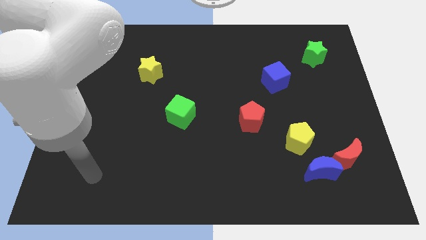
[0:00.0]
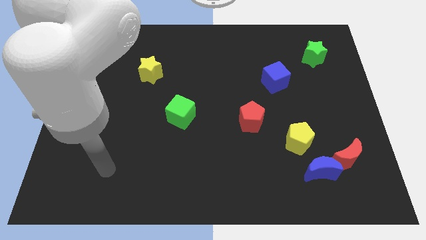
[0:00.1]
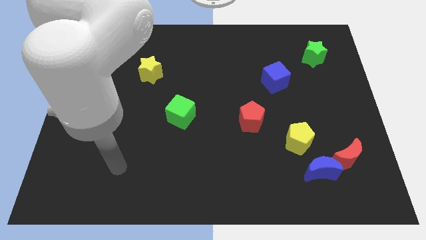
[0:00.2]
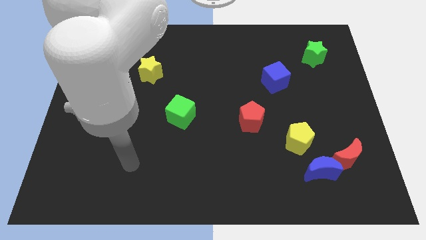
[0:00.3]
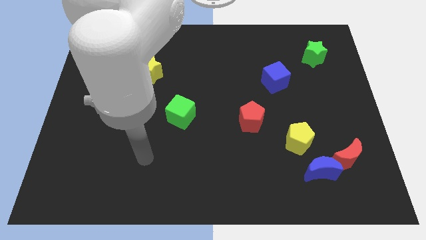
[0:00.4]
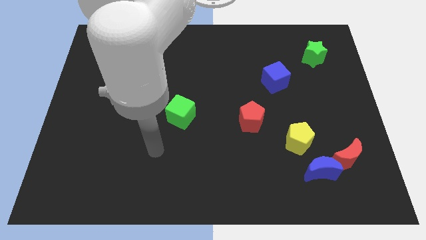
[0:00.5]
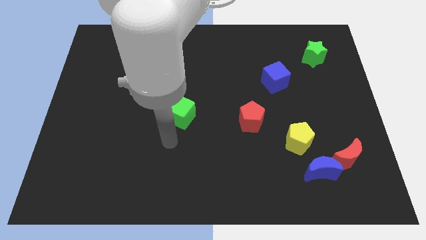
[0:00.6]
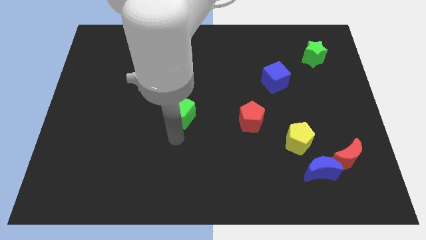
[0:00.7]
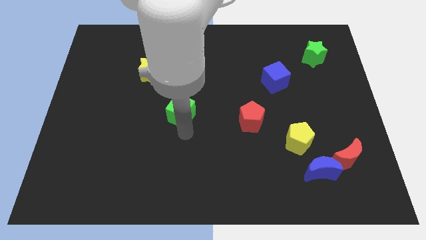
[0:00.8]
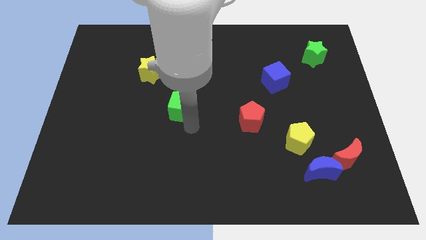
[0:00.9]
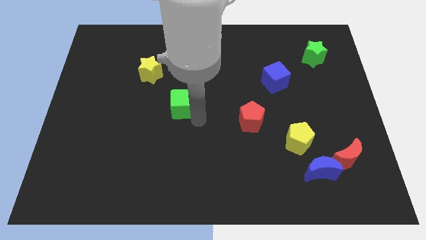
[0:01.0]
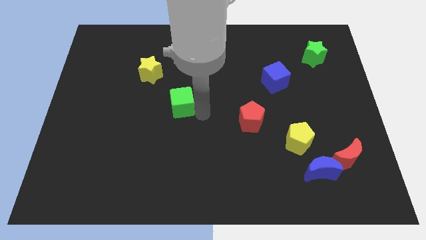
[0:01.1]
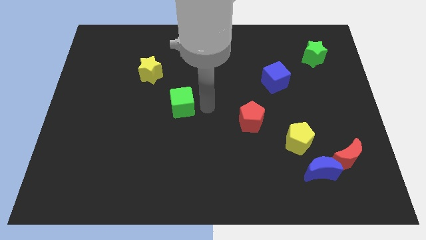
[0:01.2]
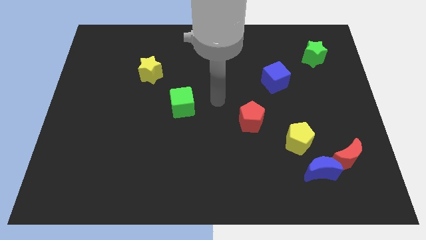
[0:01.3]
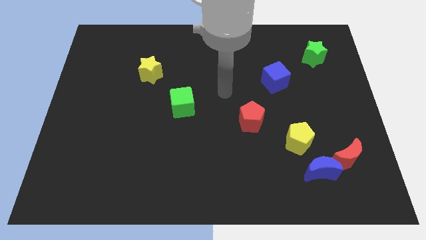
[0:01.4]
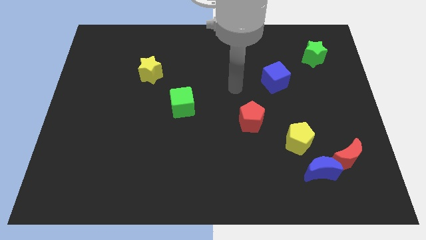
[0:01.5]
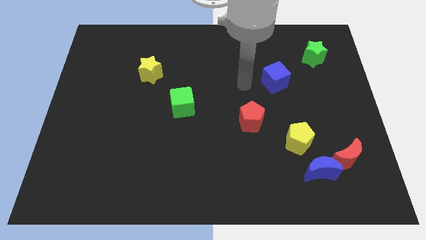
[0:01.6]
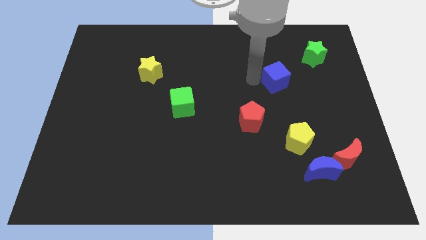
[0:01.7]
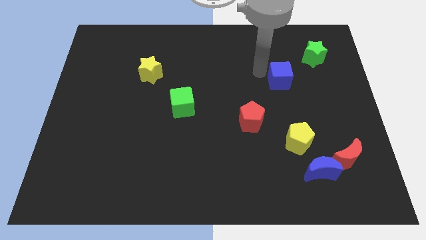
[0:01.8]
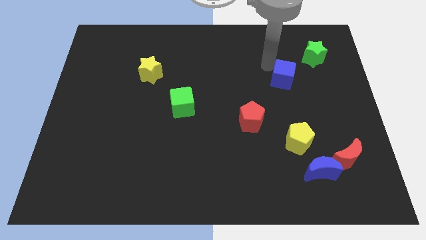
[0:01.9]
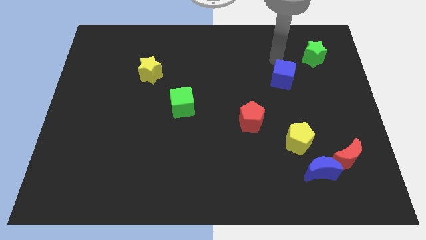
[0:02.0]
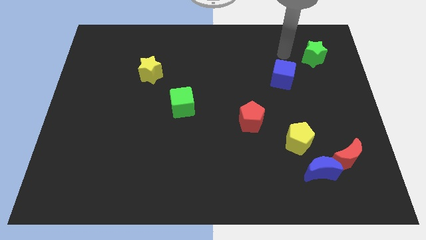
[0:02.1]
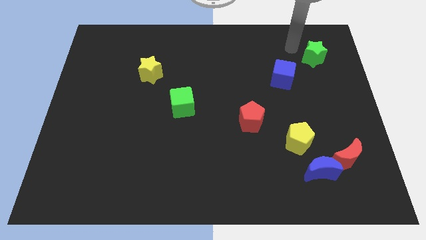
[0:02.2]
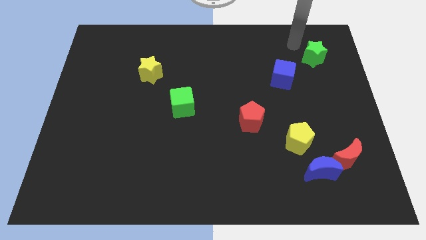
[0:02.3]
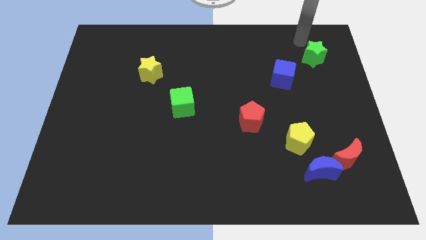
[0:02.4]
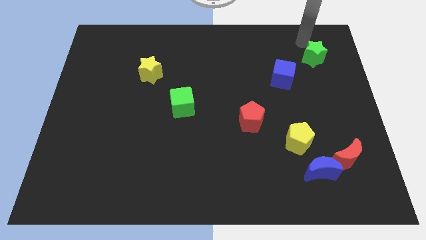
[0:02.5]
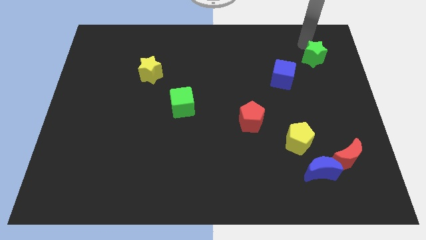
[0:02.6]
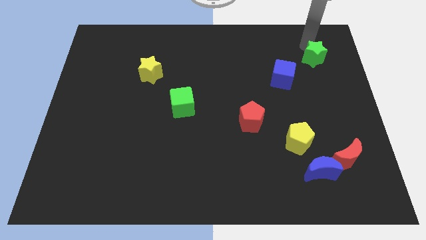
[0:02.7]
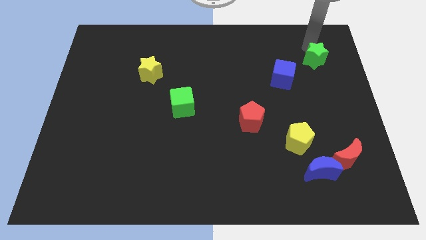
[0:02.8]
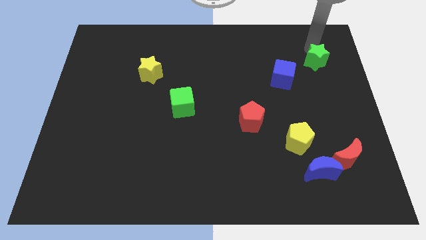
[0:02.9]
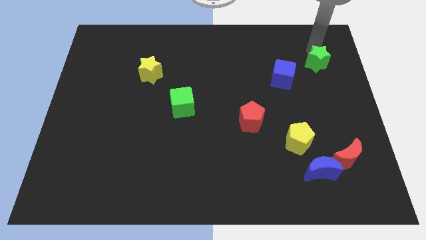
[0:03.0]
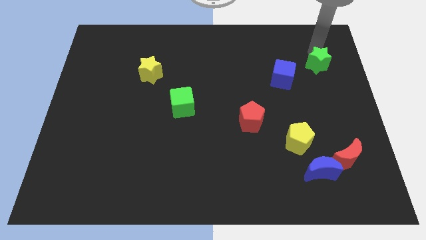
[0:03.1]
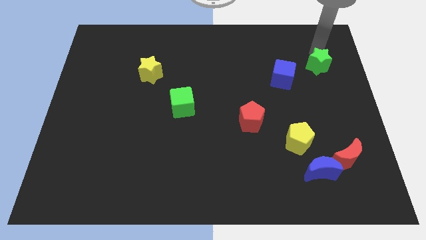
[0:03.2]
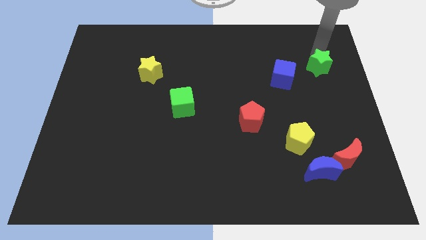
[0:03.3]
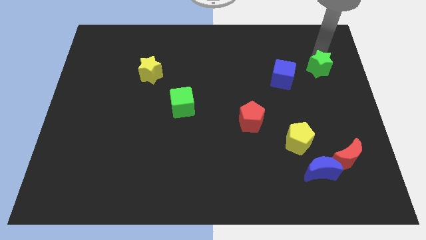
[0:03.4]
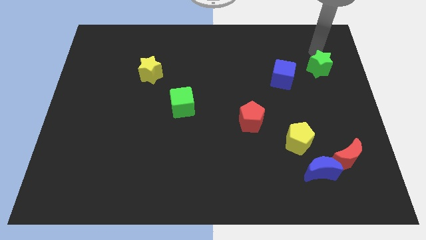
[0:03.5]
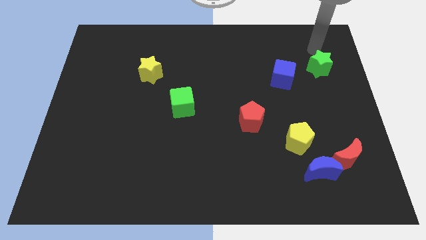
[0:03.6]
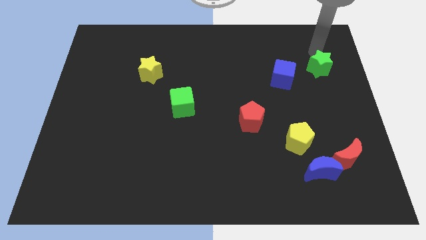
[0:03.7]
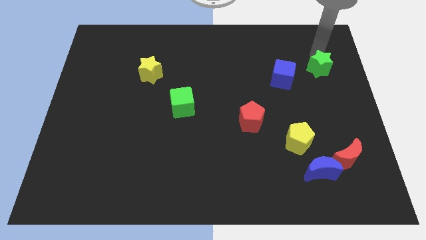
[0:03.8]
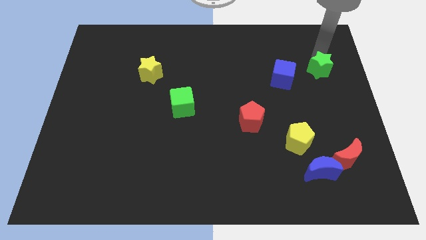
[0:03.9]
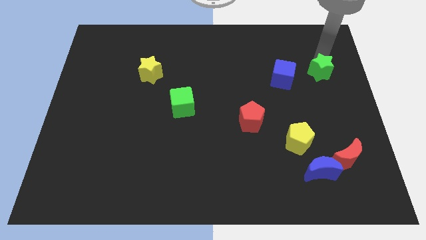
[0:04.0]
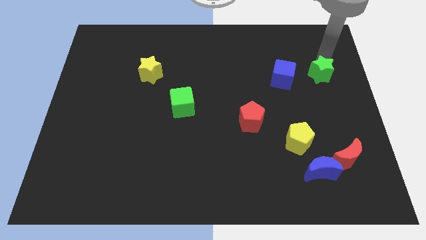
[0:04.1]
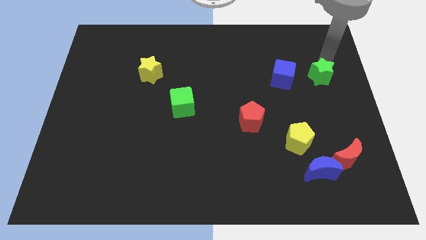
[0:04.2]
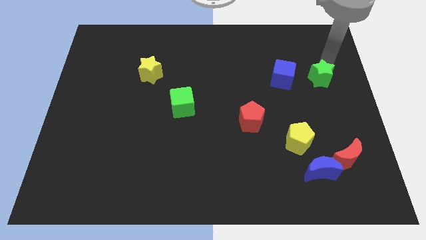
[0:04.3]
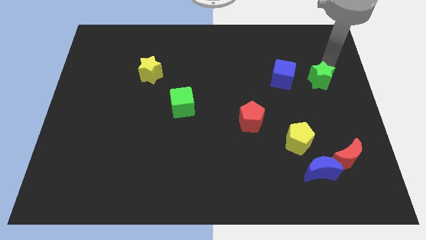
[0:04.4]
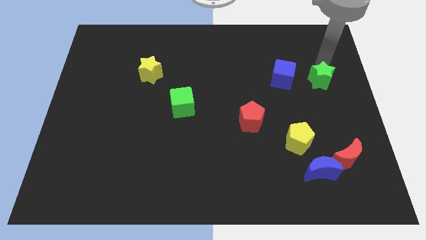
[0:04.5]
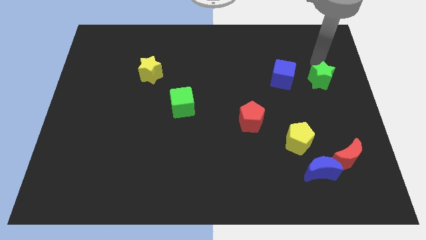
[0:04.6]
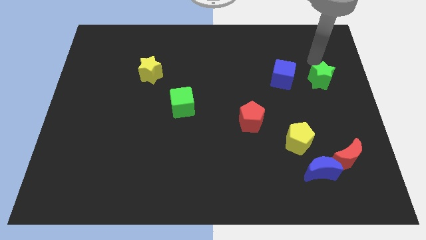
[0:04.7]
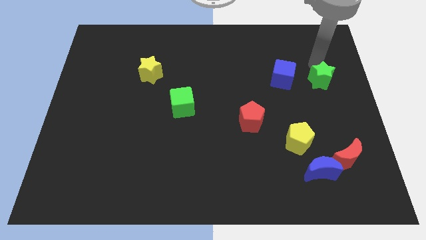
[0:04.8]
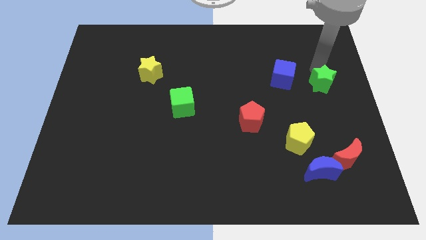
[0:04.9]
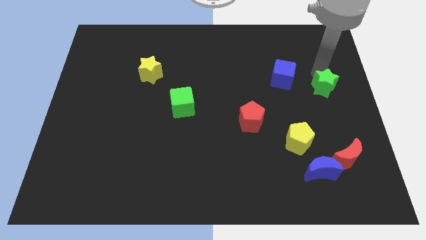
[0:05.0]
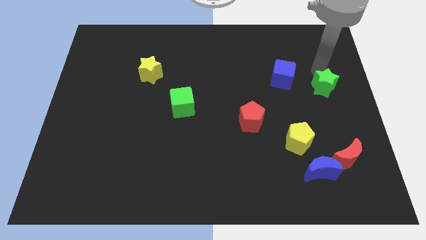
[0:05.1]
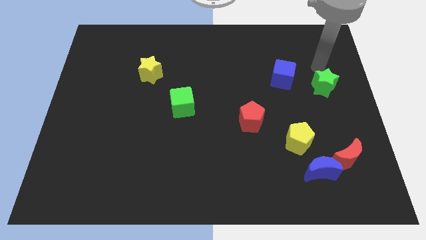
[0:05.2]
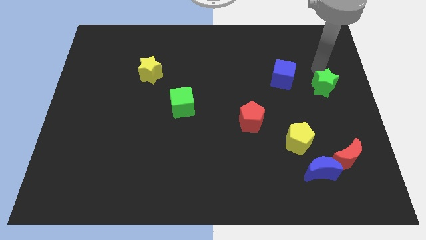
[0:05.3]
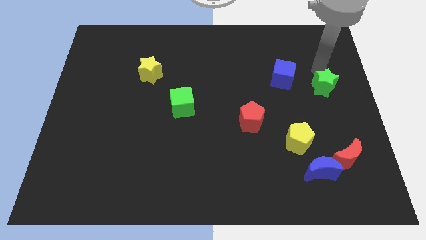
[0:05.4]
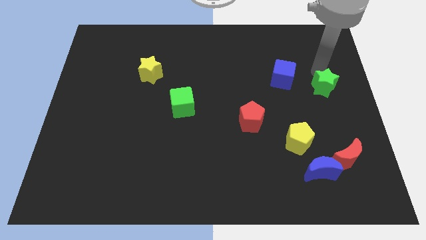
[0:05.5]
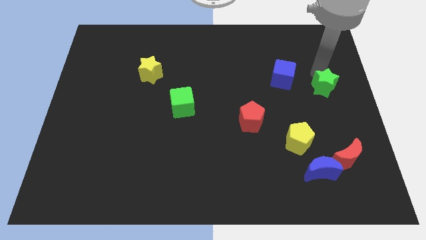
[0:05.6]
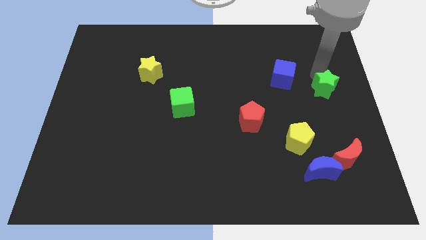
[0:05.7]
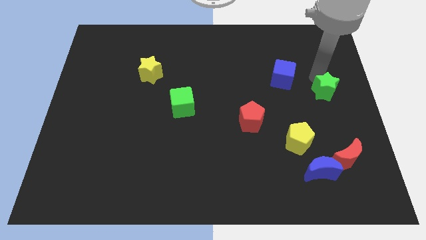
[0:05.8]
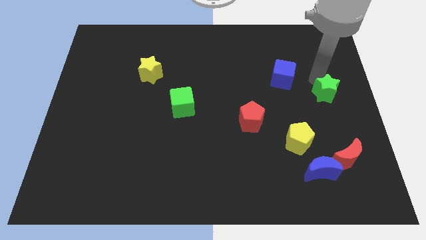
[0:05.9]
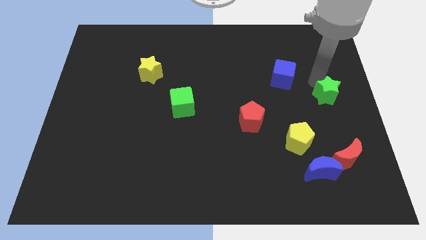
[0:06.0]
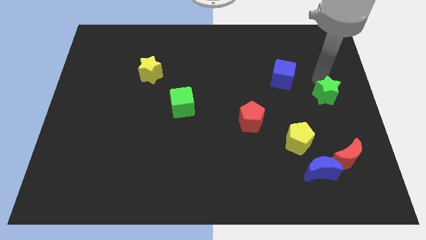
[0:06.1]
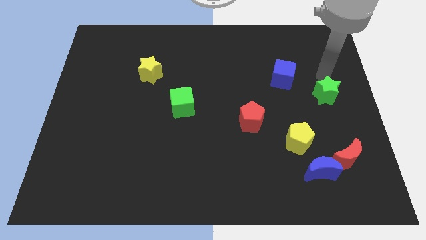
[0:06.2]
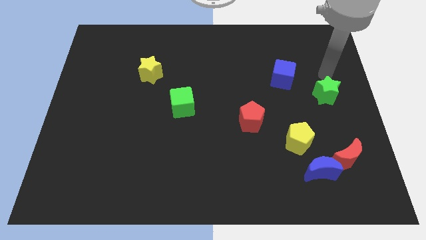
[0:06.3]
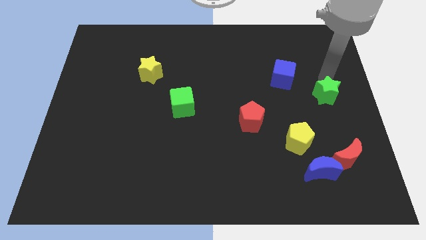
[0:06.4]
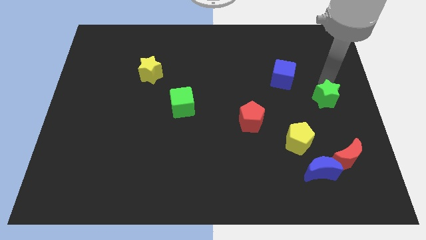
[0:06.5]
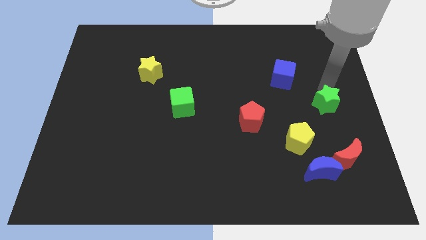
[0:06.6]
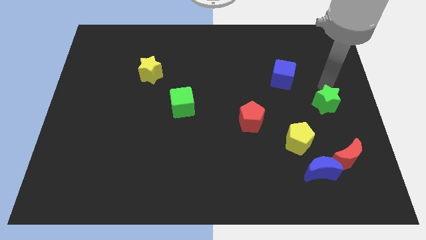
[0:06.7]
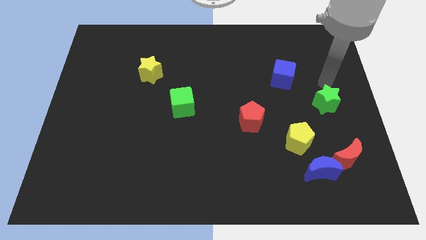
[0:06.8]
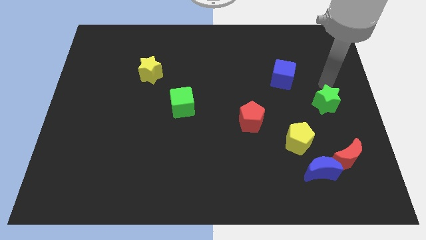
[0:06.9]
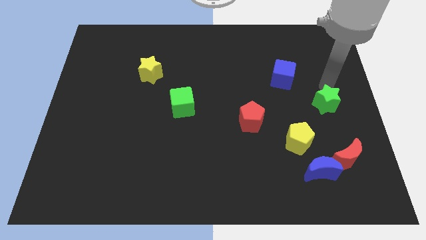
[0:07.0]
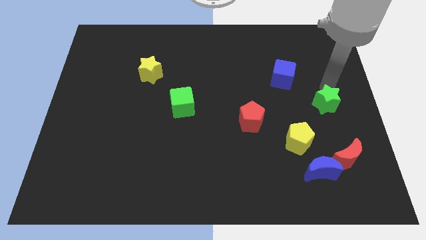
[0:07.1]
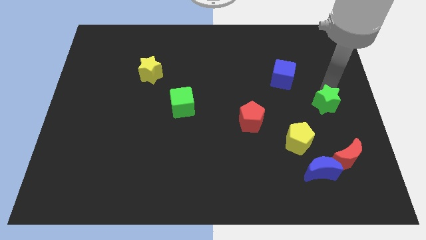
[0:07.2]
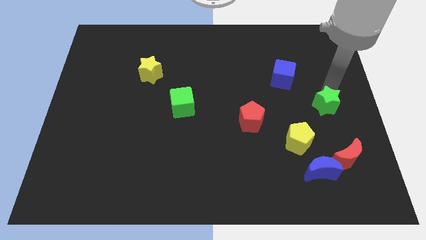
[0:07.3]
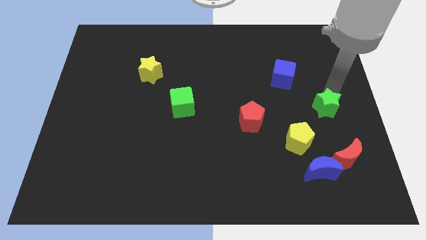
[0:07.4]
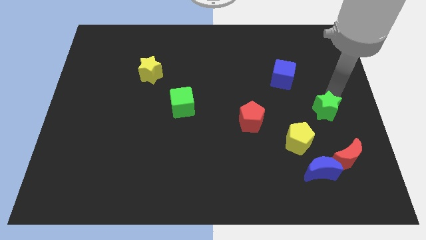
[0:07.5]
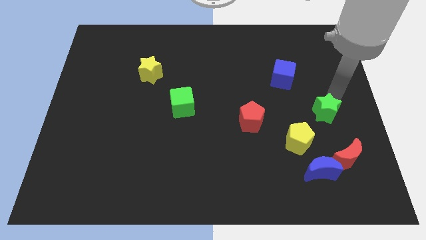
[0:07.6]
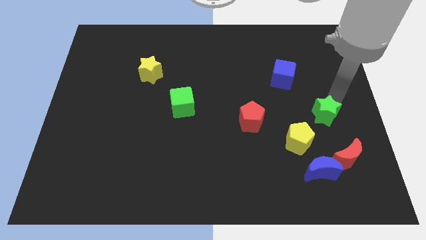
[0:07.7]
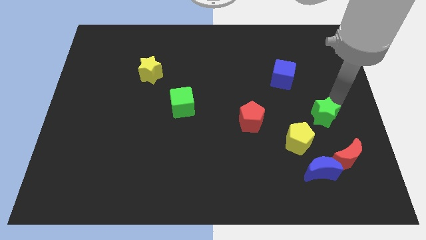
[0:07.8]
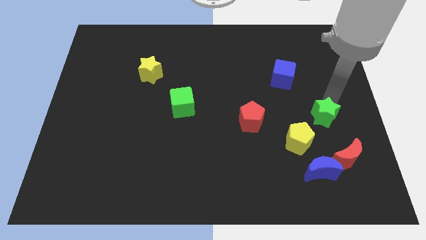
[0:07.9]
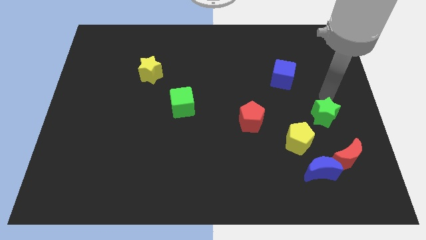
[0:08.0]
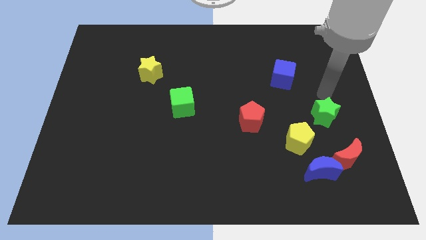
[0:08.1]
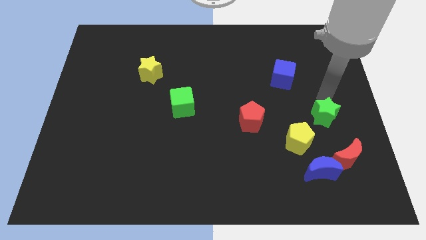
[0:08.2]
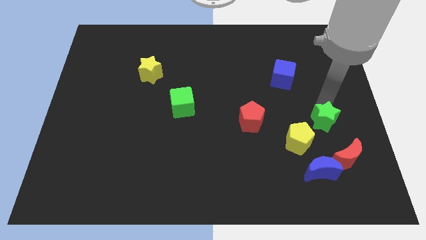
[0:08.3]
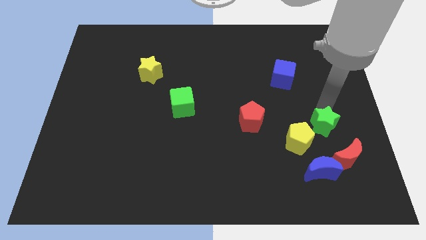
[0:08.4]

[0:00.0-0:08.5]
slide the green star to the right side of the yellow pentagon
